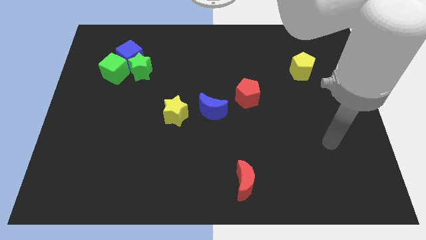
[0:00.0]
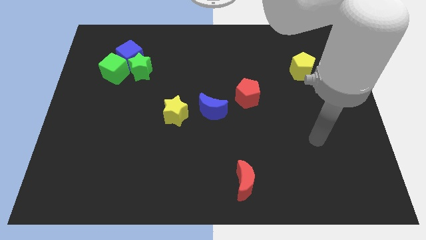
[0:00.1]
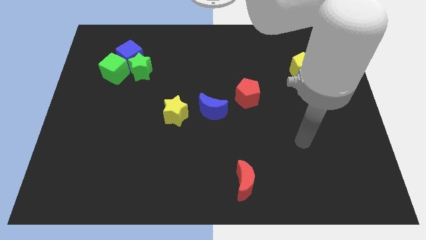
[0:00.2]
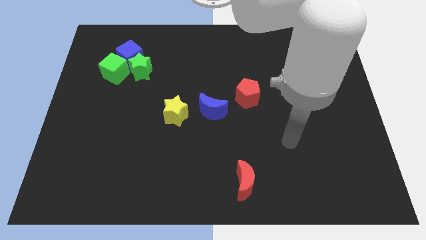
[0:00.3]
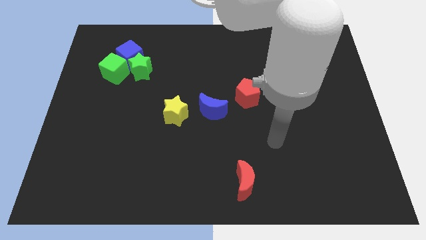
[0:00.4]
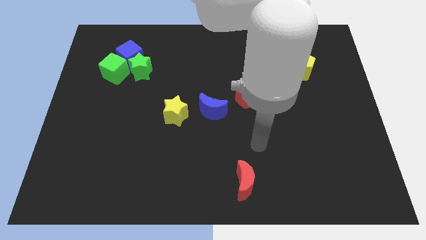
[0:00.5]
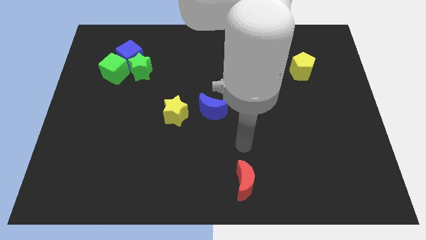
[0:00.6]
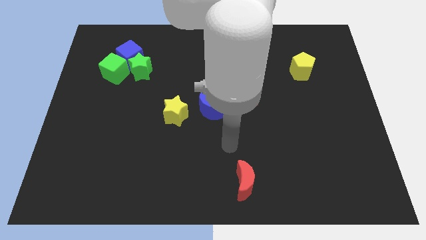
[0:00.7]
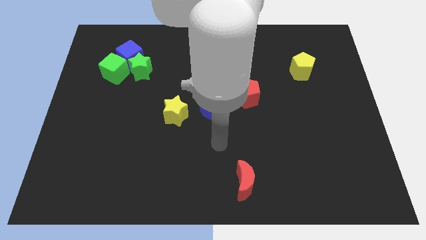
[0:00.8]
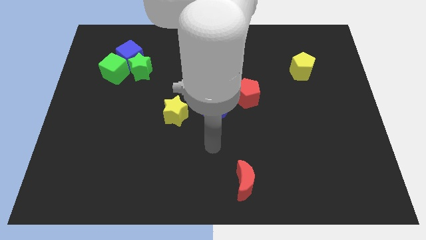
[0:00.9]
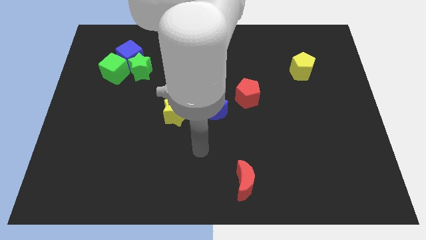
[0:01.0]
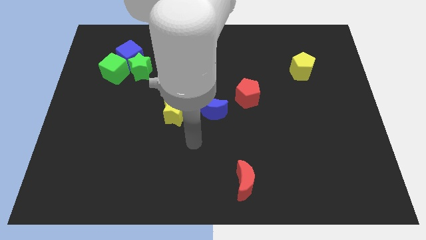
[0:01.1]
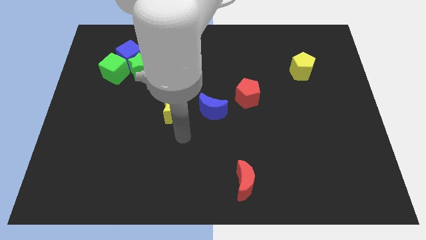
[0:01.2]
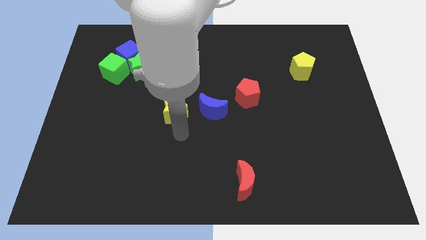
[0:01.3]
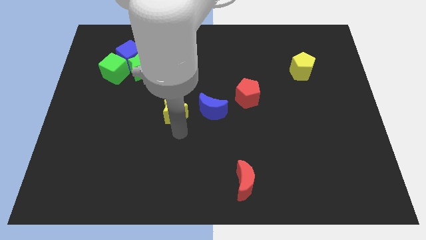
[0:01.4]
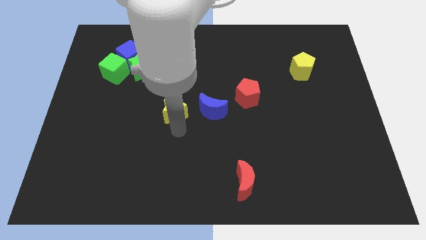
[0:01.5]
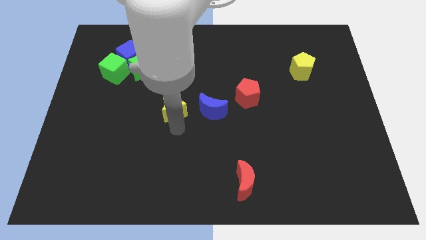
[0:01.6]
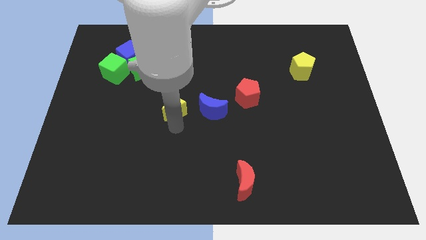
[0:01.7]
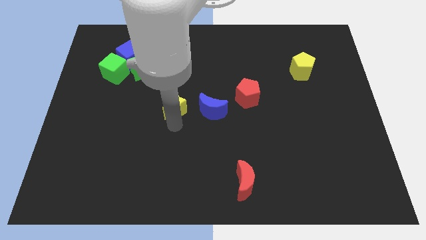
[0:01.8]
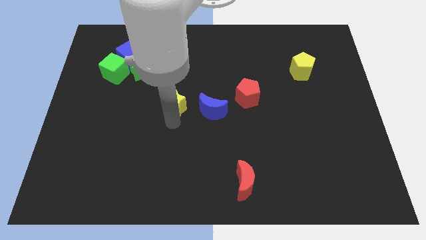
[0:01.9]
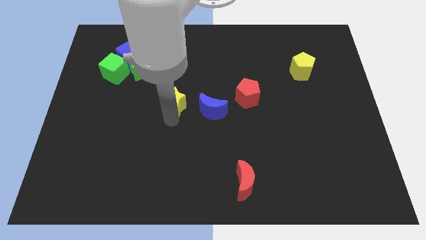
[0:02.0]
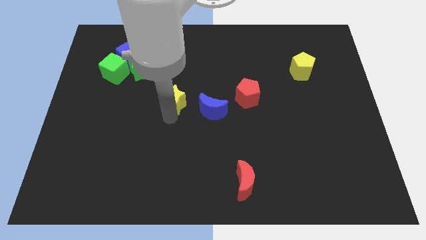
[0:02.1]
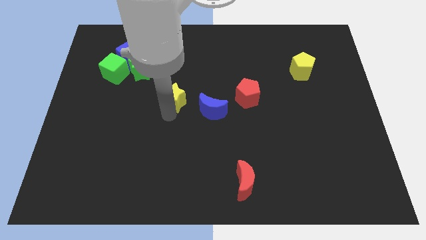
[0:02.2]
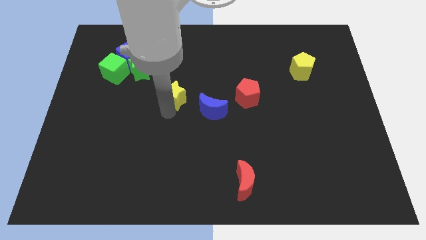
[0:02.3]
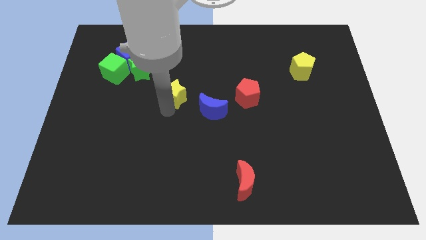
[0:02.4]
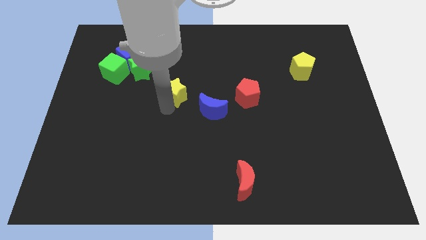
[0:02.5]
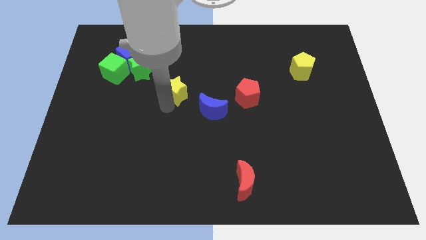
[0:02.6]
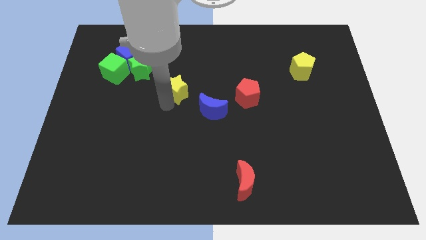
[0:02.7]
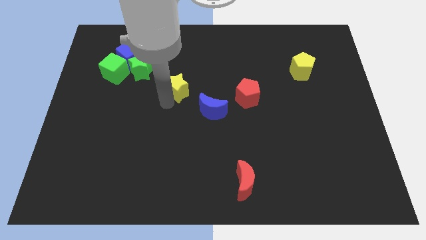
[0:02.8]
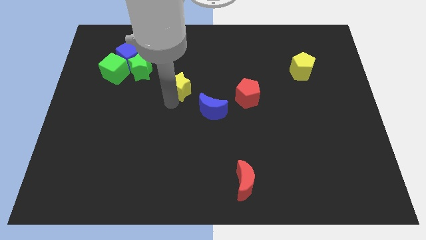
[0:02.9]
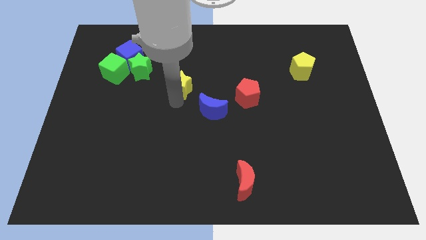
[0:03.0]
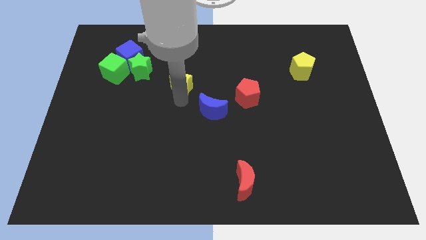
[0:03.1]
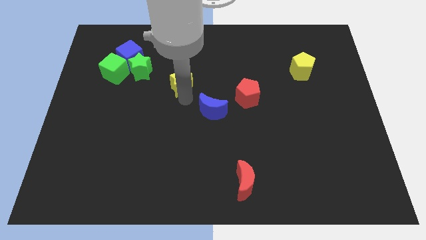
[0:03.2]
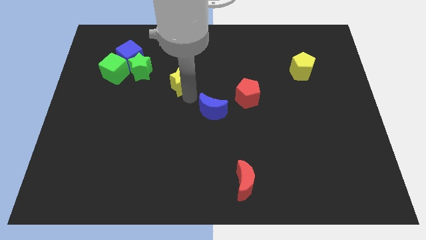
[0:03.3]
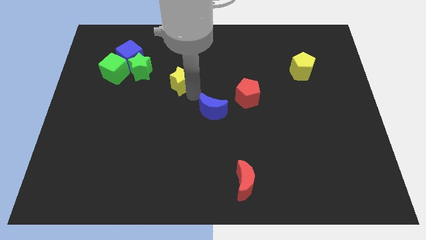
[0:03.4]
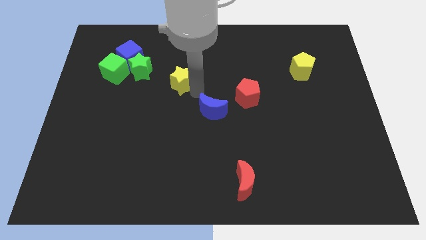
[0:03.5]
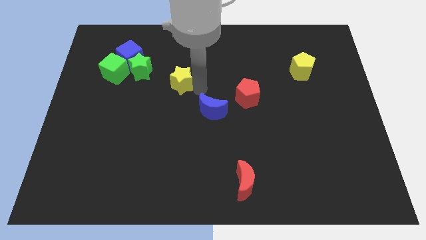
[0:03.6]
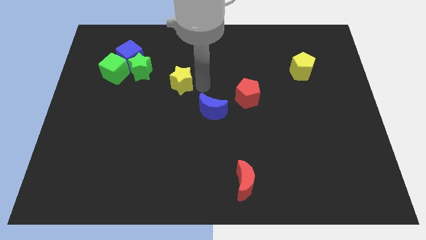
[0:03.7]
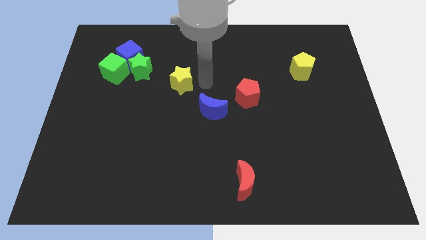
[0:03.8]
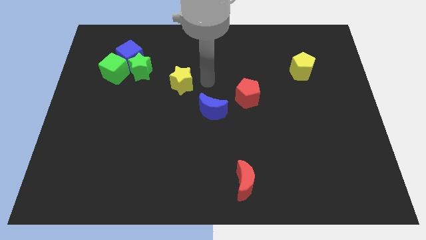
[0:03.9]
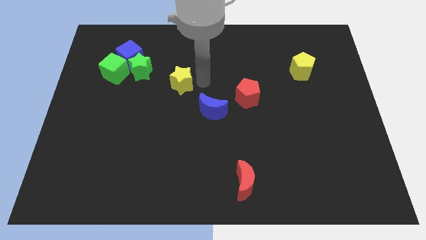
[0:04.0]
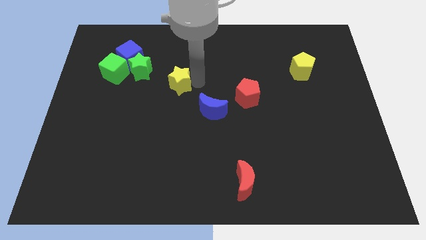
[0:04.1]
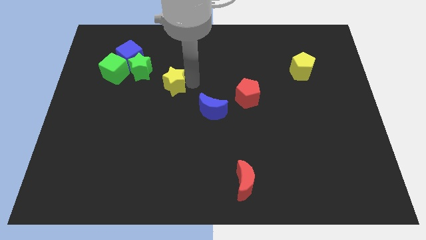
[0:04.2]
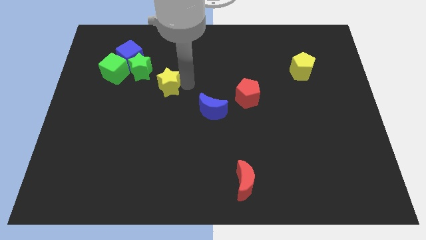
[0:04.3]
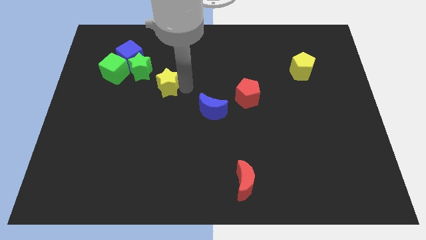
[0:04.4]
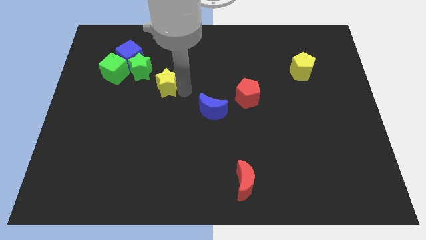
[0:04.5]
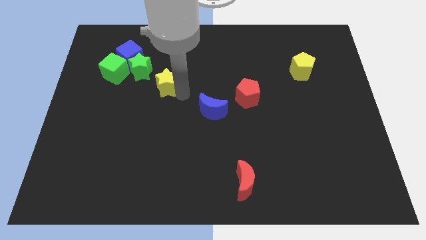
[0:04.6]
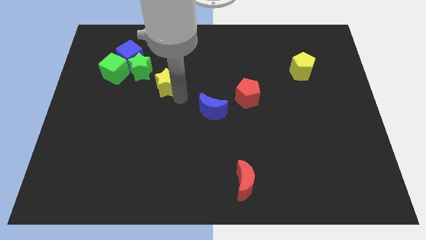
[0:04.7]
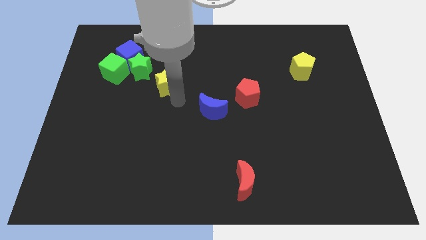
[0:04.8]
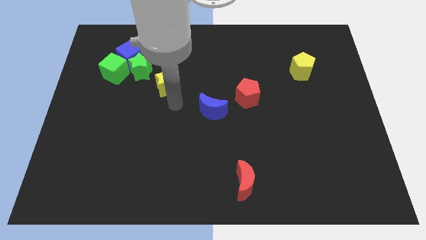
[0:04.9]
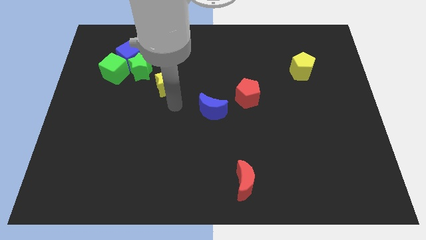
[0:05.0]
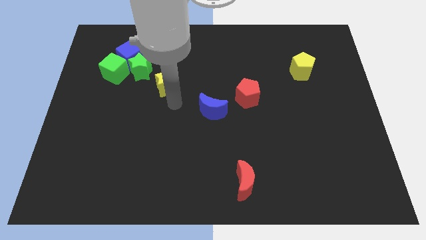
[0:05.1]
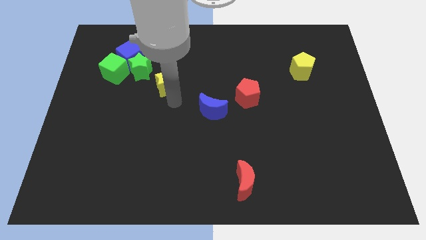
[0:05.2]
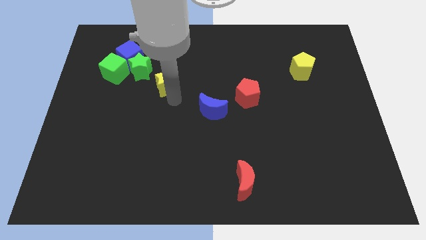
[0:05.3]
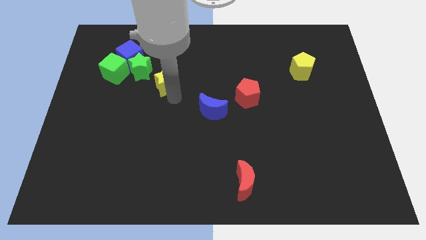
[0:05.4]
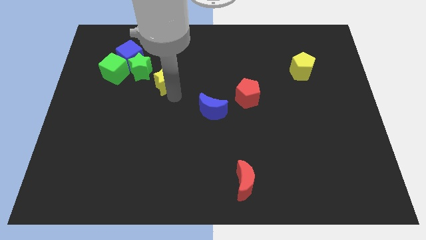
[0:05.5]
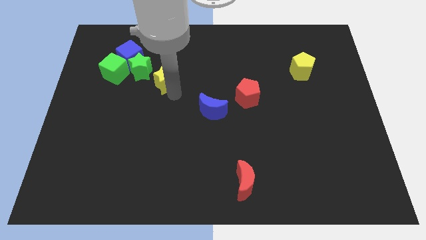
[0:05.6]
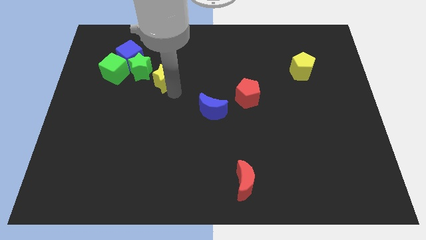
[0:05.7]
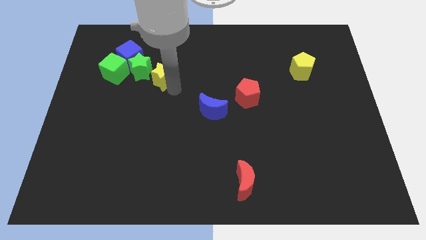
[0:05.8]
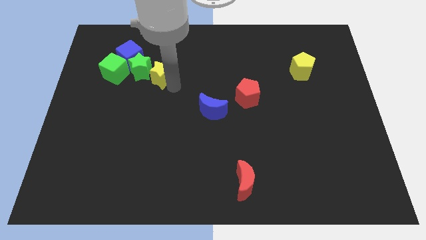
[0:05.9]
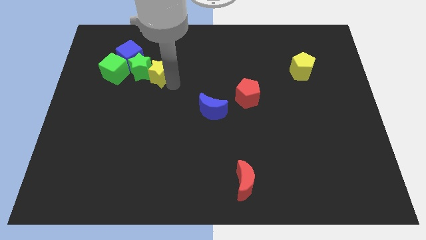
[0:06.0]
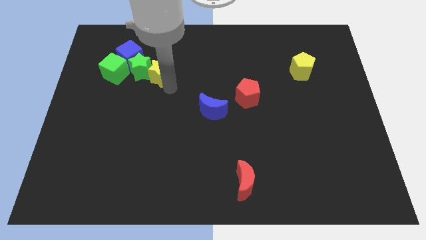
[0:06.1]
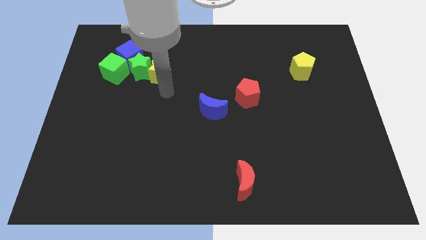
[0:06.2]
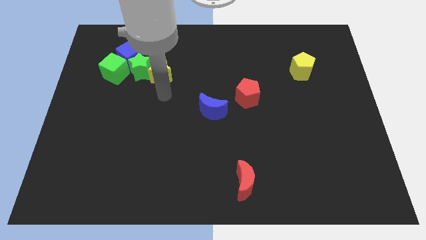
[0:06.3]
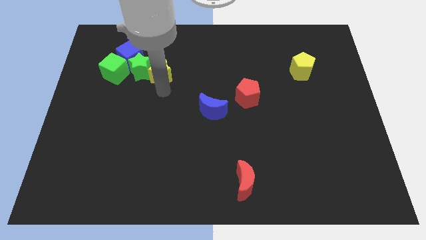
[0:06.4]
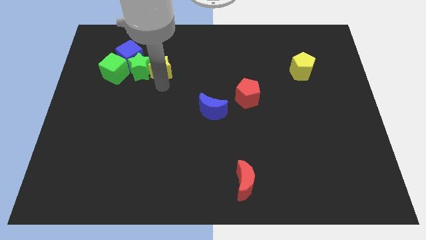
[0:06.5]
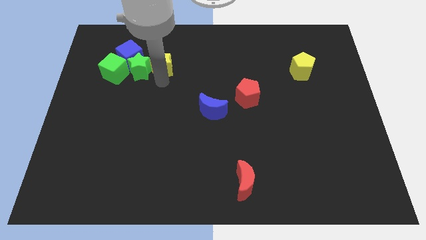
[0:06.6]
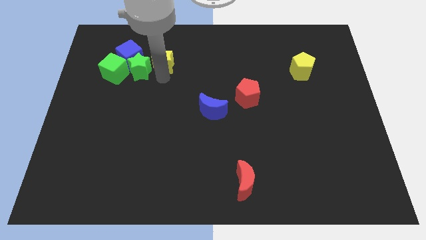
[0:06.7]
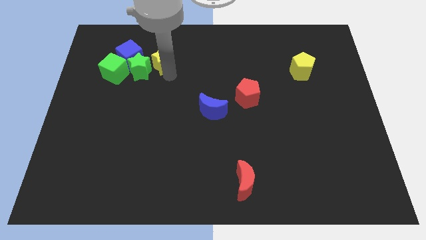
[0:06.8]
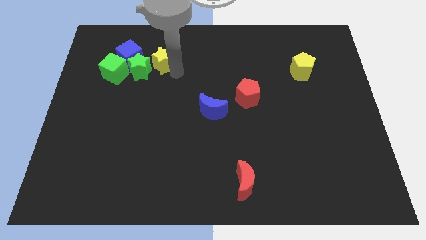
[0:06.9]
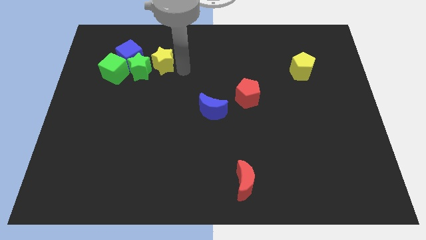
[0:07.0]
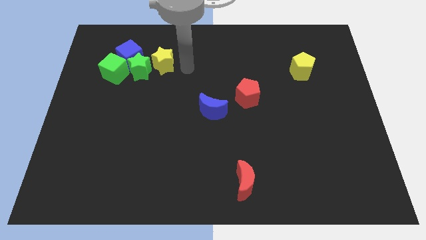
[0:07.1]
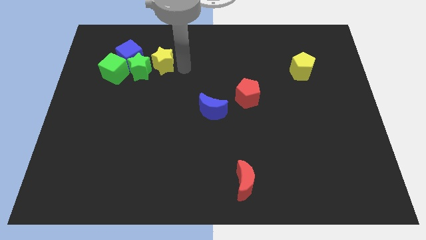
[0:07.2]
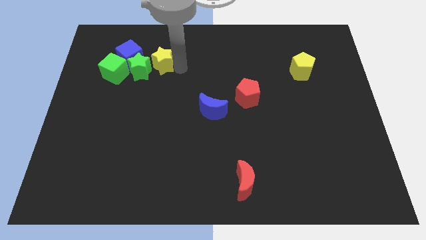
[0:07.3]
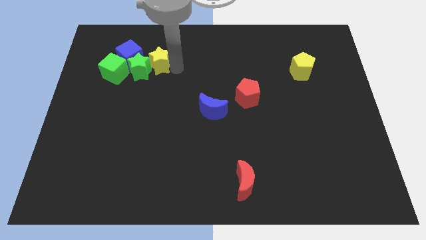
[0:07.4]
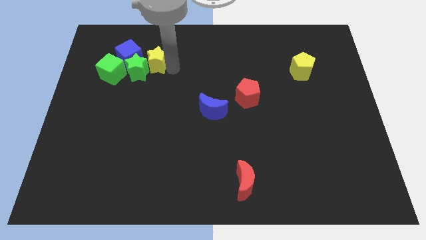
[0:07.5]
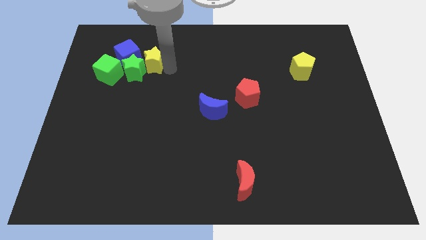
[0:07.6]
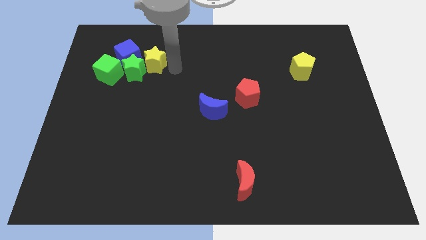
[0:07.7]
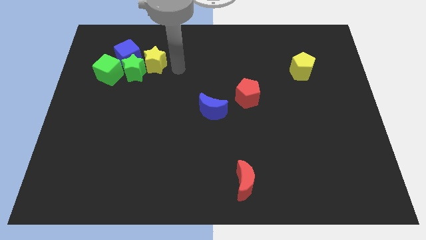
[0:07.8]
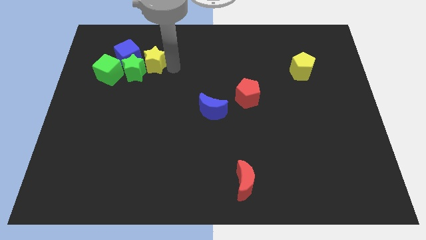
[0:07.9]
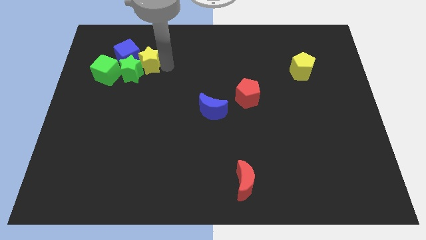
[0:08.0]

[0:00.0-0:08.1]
put the yellow star close to the blue cube
